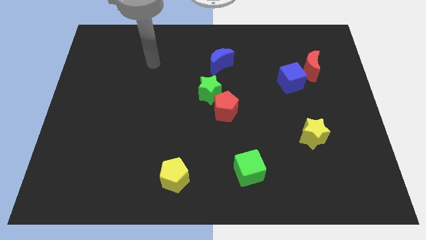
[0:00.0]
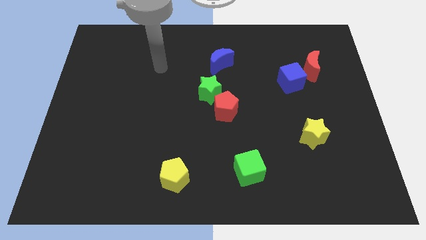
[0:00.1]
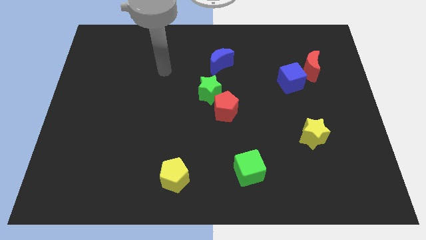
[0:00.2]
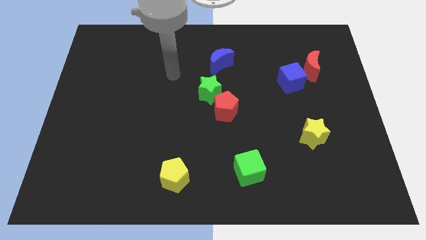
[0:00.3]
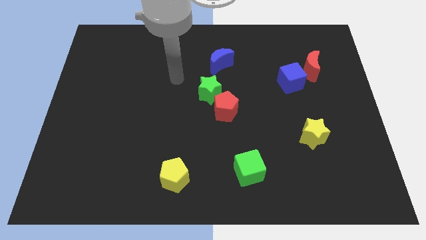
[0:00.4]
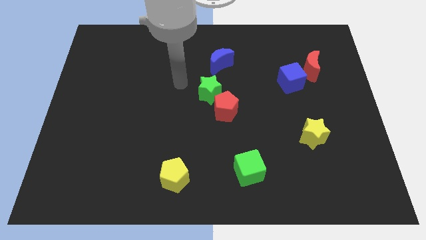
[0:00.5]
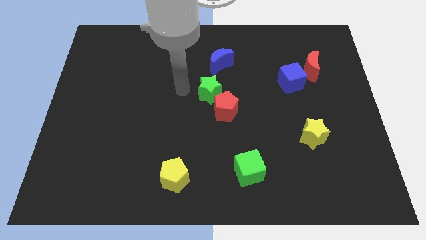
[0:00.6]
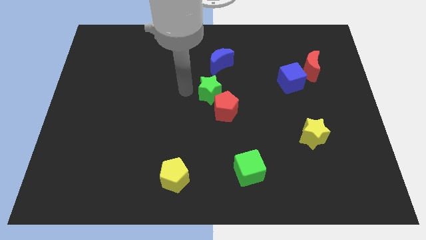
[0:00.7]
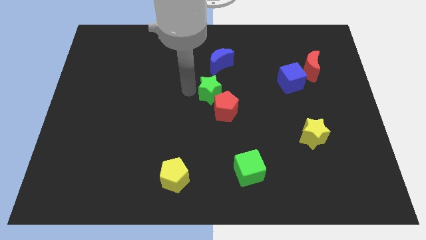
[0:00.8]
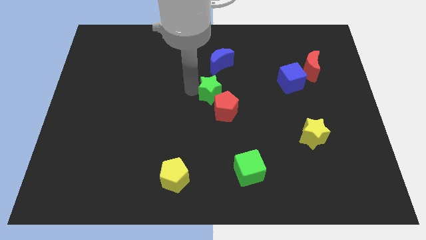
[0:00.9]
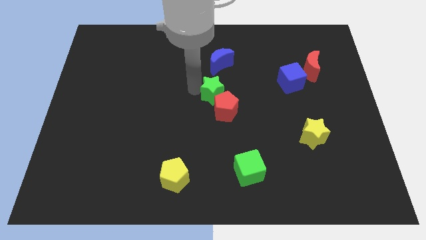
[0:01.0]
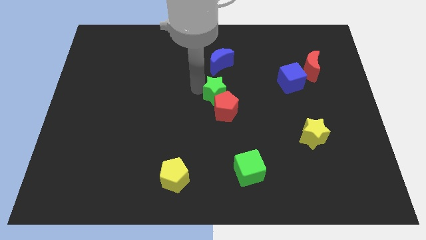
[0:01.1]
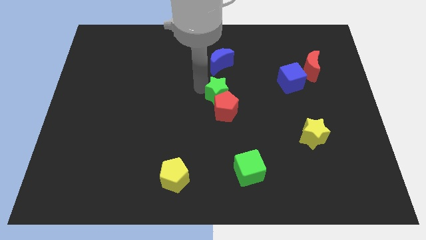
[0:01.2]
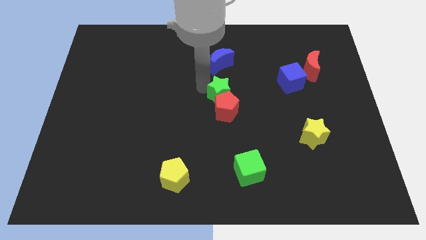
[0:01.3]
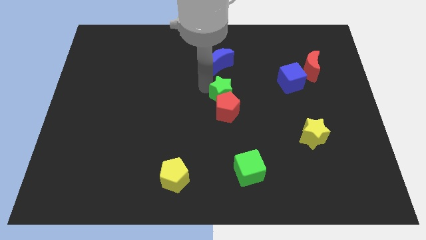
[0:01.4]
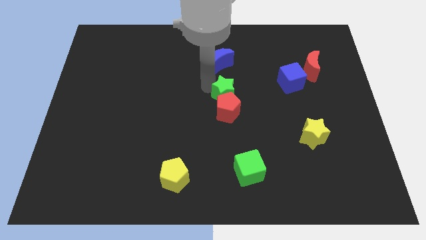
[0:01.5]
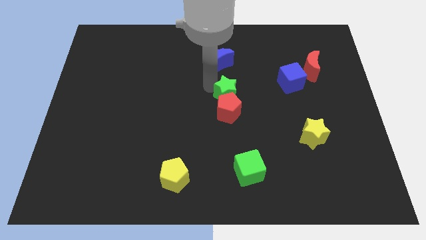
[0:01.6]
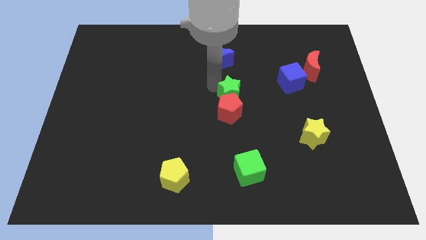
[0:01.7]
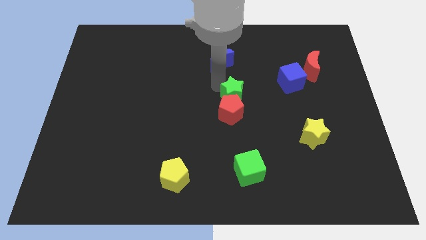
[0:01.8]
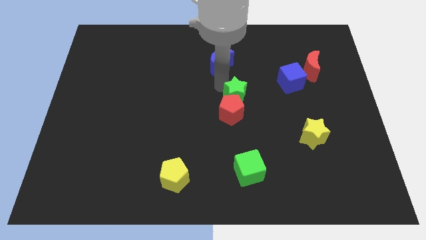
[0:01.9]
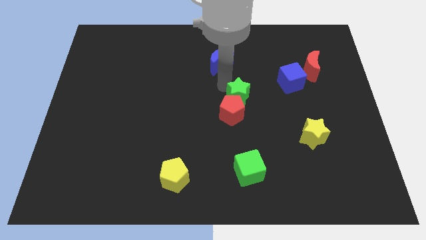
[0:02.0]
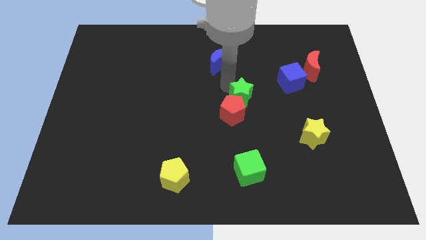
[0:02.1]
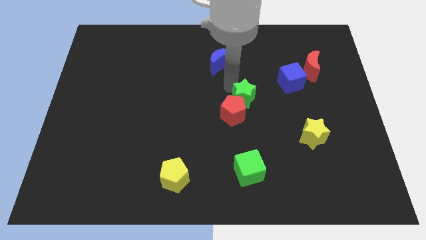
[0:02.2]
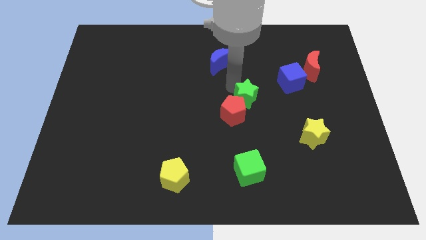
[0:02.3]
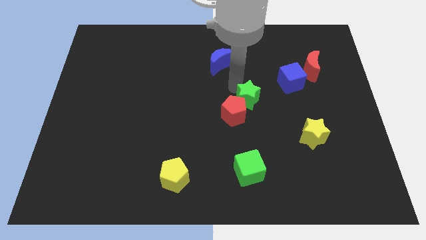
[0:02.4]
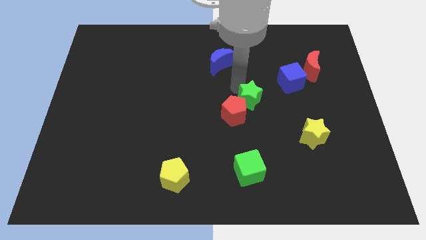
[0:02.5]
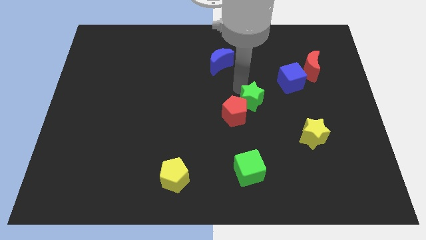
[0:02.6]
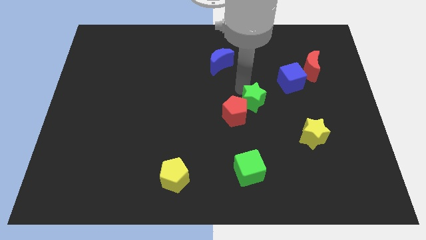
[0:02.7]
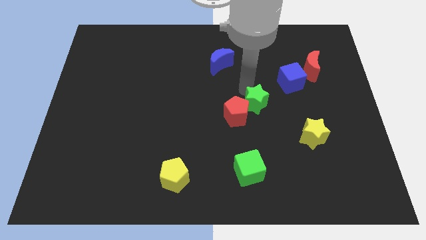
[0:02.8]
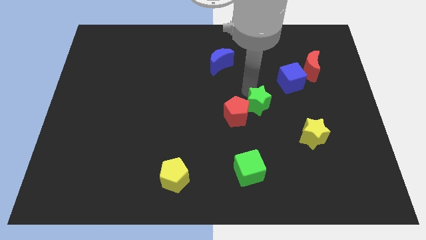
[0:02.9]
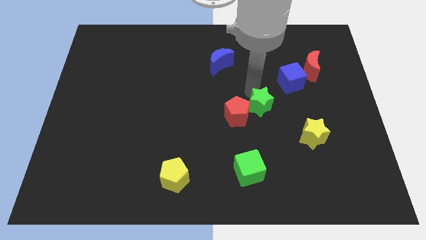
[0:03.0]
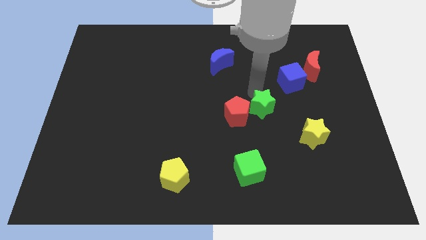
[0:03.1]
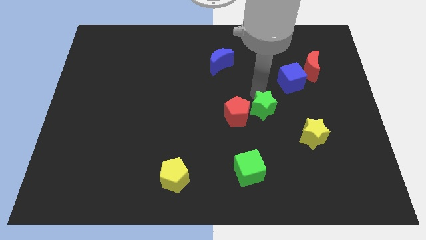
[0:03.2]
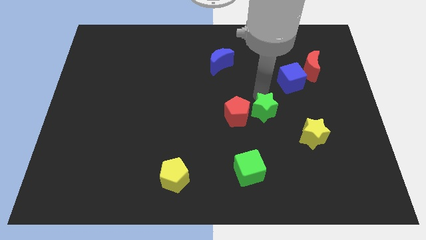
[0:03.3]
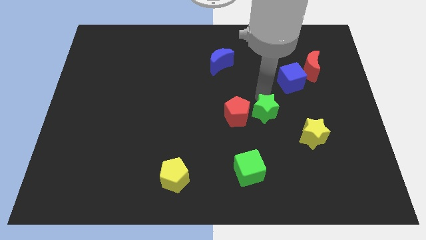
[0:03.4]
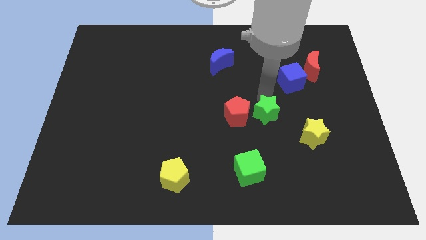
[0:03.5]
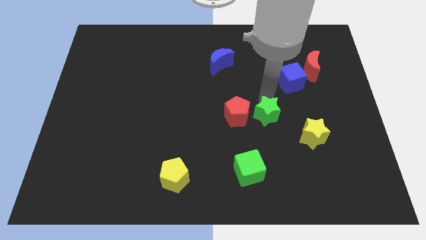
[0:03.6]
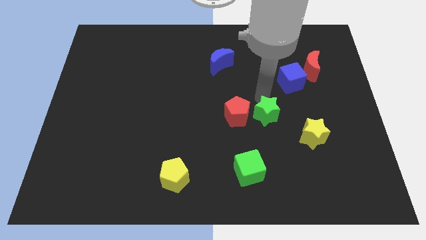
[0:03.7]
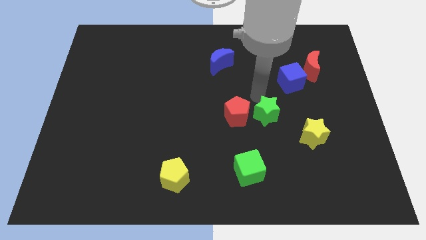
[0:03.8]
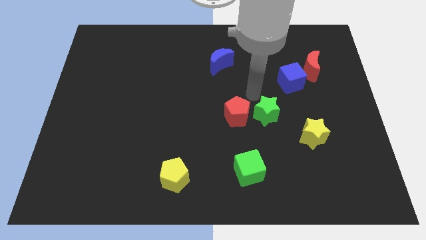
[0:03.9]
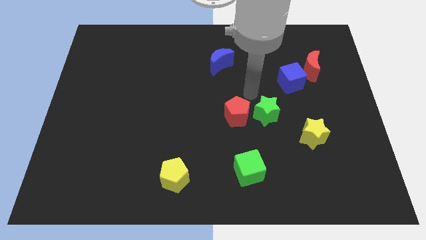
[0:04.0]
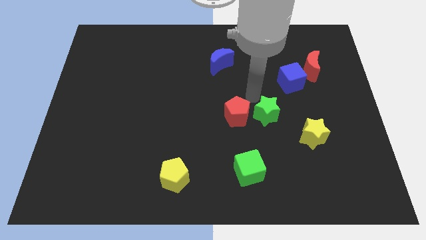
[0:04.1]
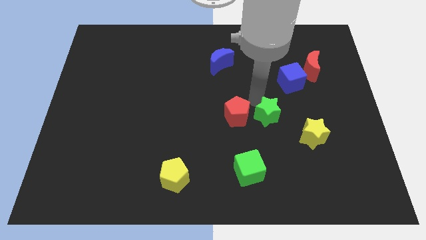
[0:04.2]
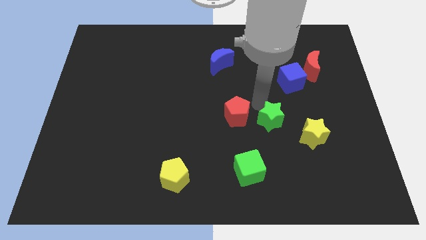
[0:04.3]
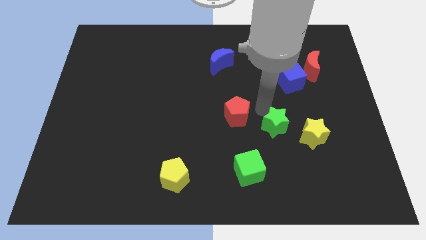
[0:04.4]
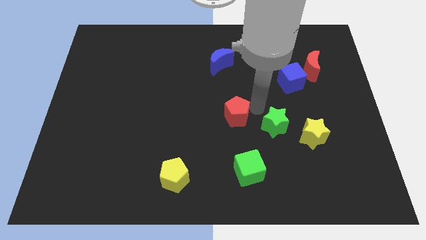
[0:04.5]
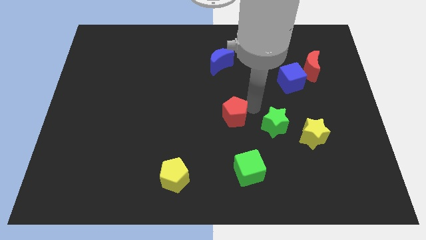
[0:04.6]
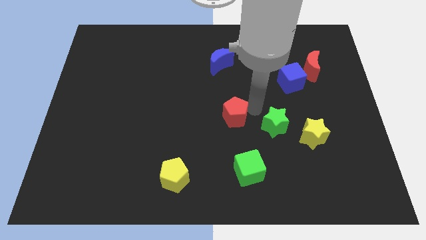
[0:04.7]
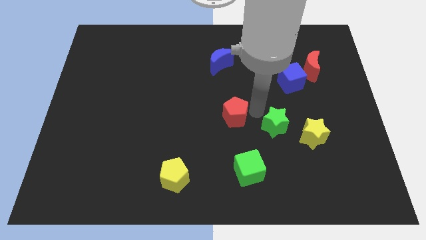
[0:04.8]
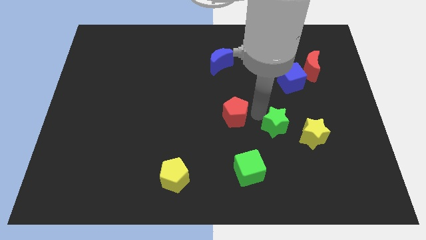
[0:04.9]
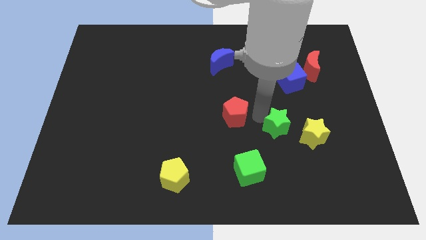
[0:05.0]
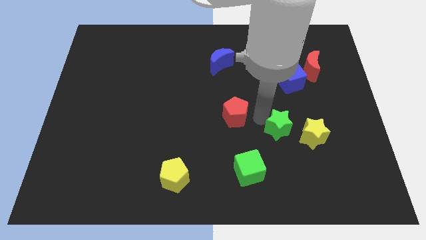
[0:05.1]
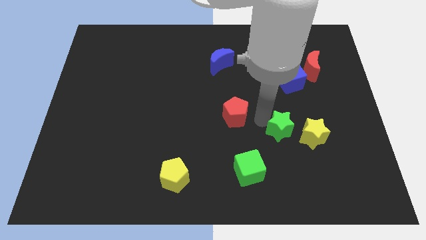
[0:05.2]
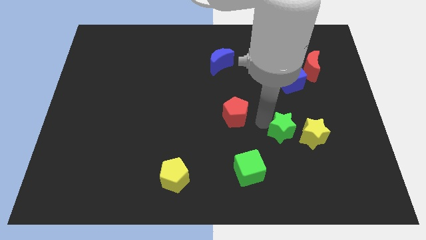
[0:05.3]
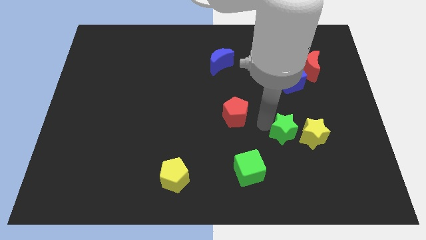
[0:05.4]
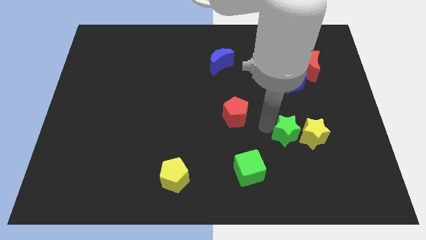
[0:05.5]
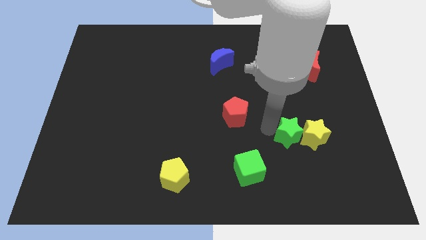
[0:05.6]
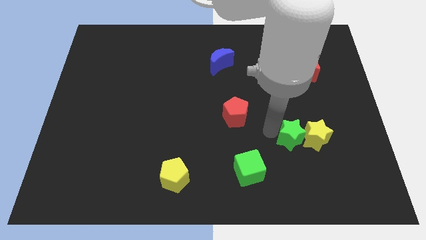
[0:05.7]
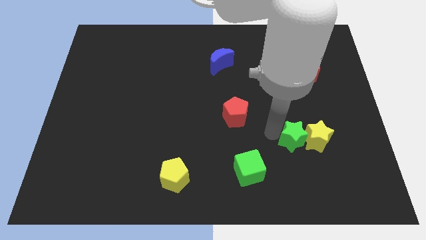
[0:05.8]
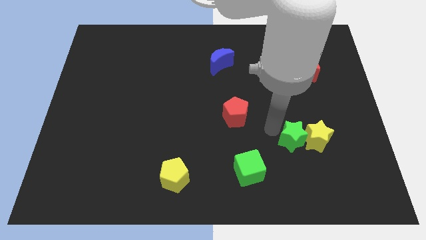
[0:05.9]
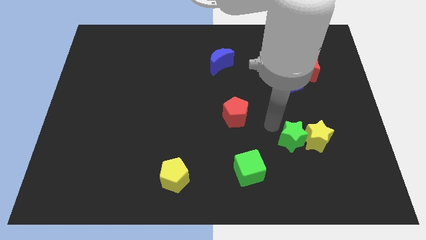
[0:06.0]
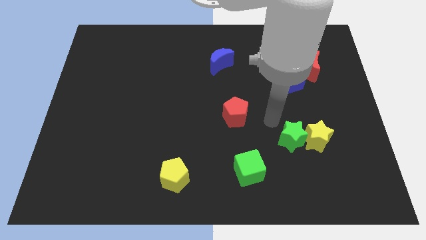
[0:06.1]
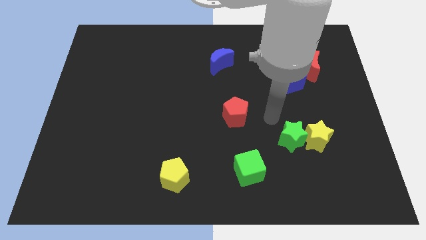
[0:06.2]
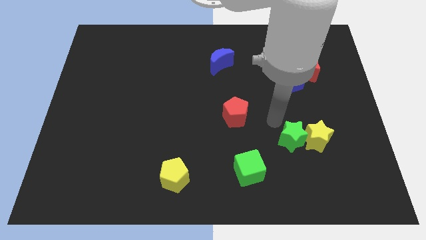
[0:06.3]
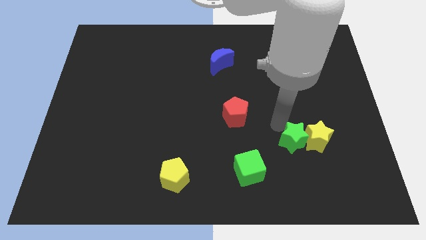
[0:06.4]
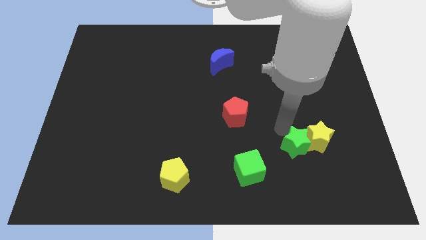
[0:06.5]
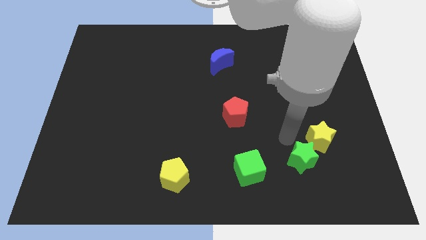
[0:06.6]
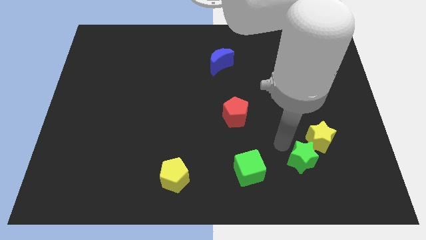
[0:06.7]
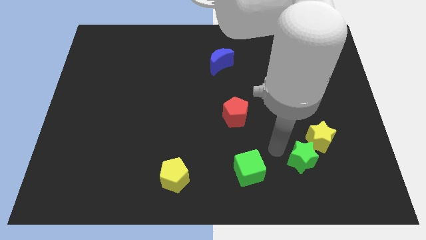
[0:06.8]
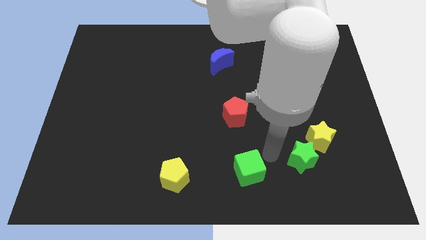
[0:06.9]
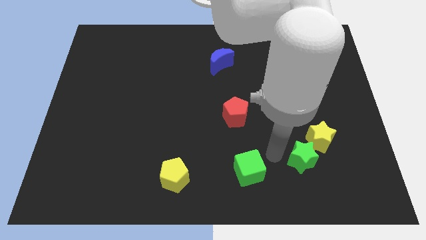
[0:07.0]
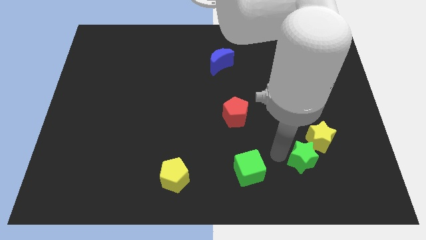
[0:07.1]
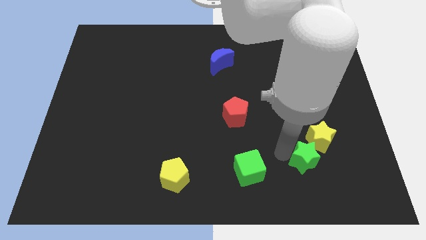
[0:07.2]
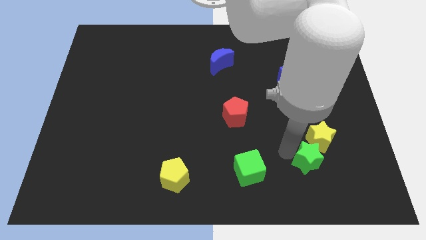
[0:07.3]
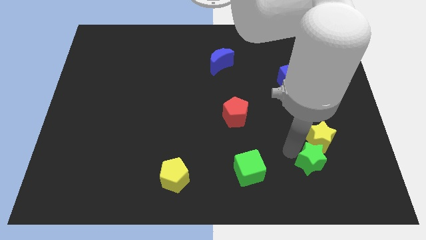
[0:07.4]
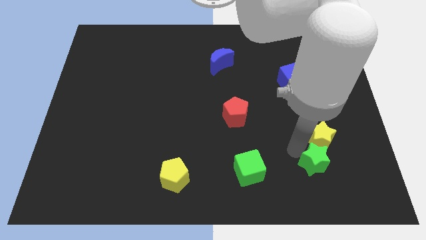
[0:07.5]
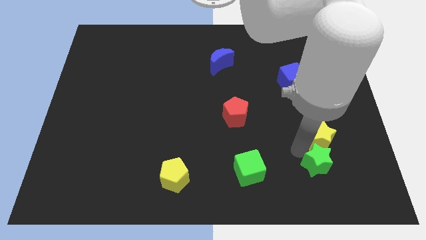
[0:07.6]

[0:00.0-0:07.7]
move the green star diagonally down and to the right of the yellow star
